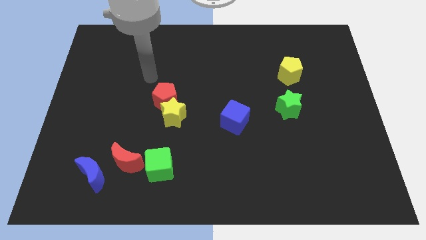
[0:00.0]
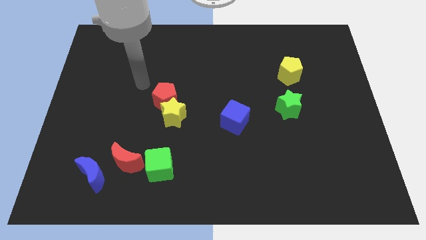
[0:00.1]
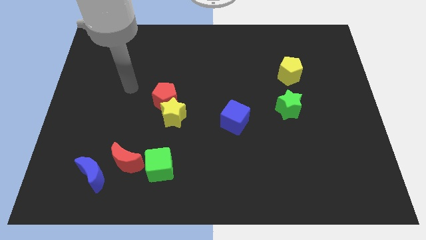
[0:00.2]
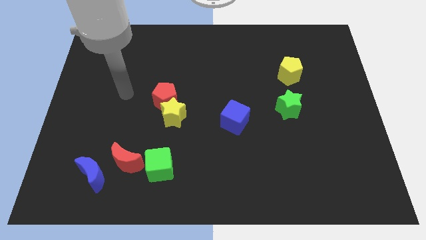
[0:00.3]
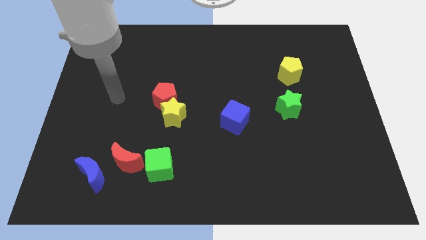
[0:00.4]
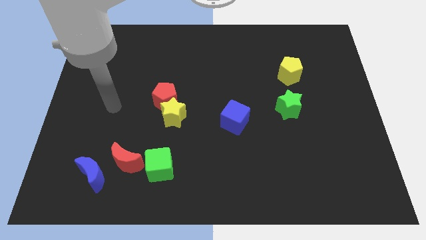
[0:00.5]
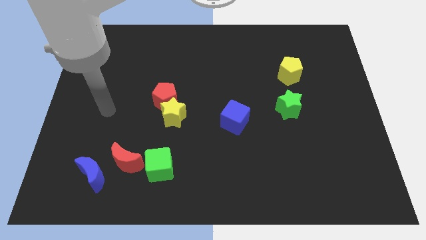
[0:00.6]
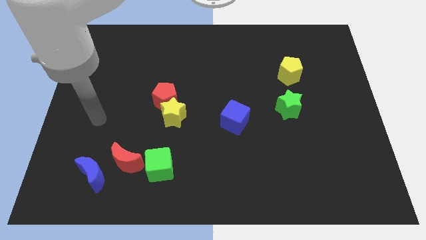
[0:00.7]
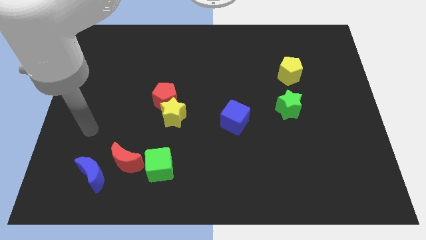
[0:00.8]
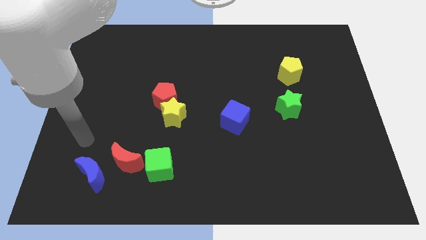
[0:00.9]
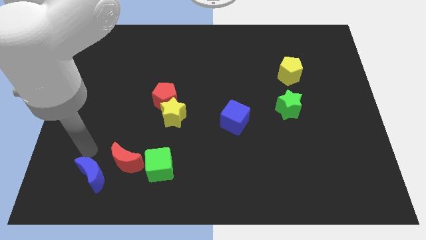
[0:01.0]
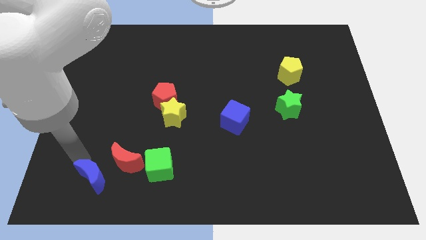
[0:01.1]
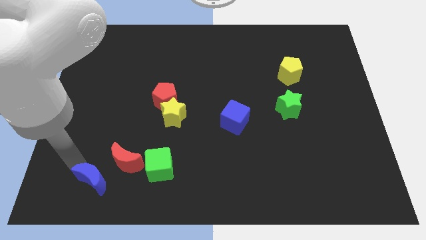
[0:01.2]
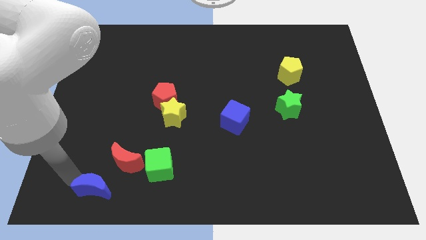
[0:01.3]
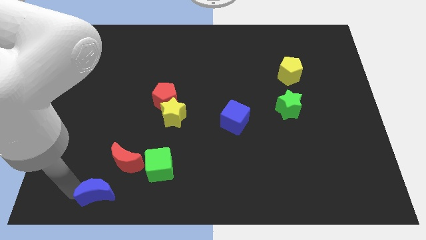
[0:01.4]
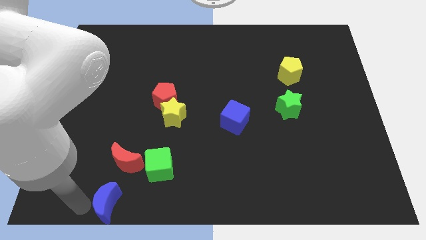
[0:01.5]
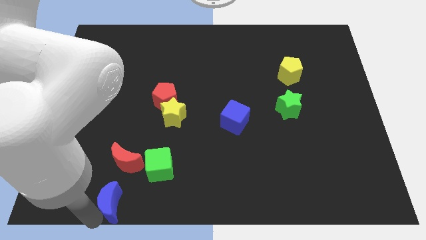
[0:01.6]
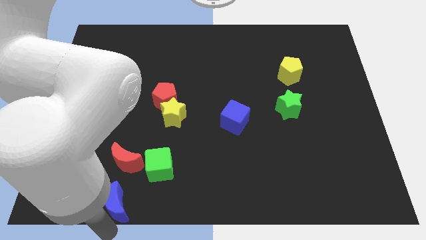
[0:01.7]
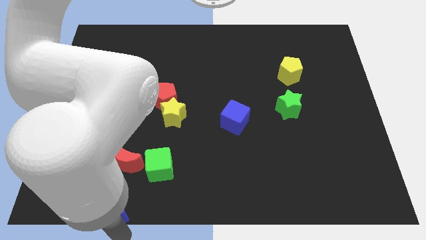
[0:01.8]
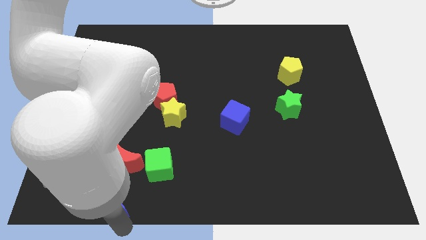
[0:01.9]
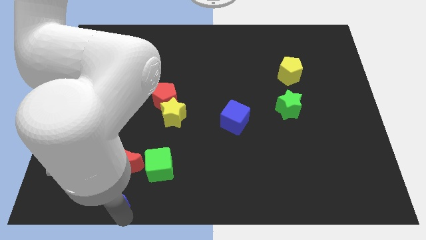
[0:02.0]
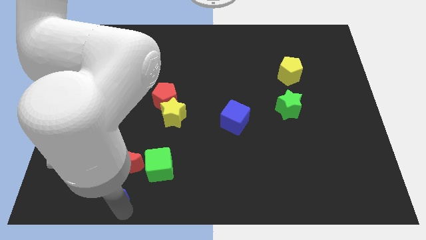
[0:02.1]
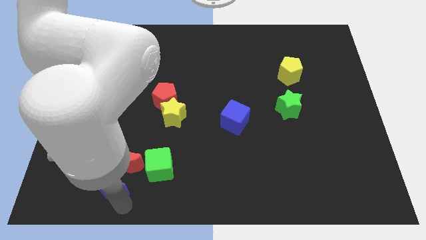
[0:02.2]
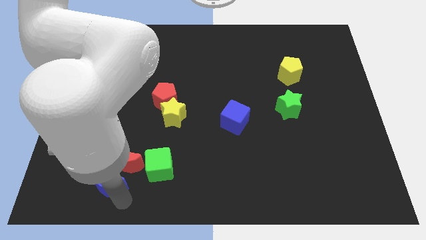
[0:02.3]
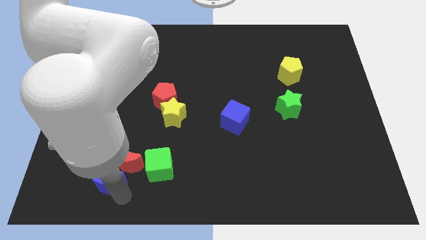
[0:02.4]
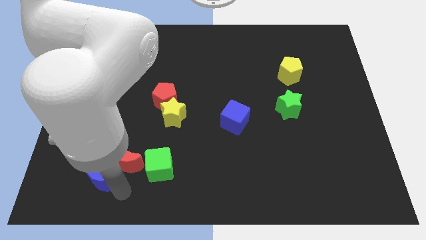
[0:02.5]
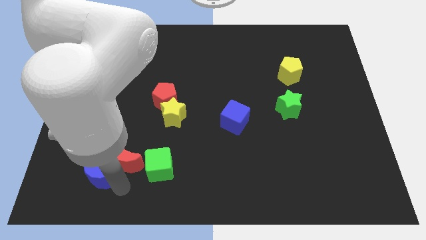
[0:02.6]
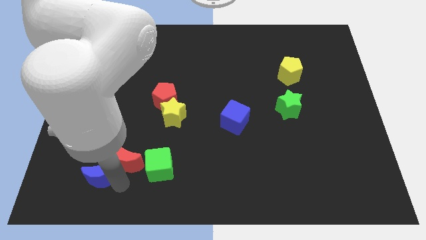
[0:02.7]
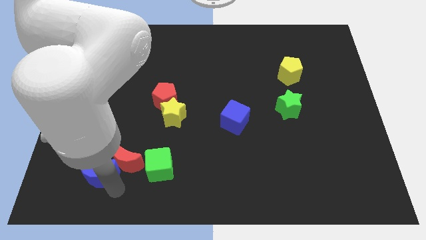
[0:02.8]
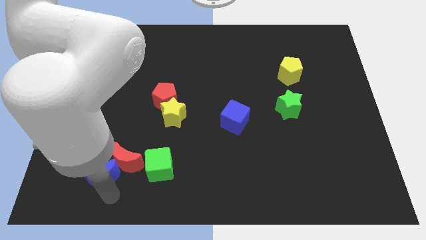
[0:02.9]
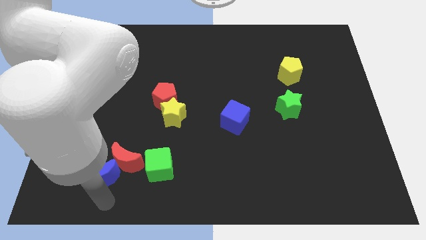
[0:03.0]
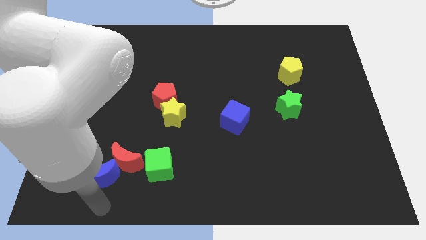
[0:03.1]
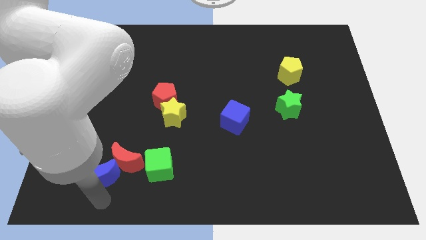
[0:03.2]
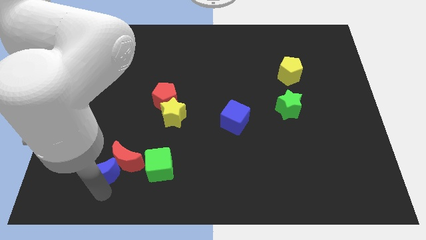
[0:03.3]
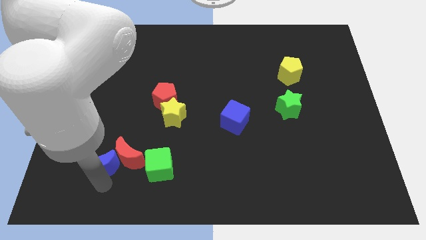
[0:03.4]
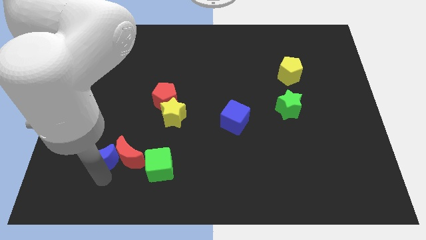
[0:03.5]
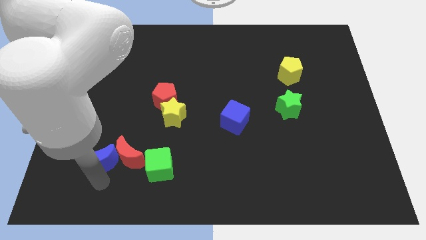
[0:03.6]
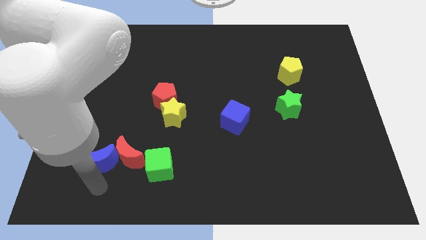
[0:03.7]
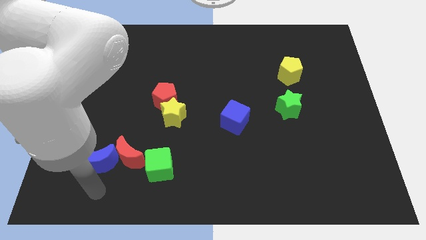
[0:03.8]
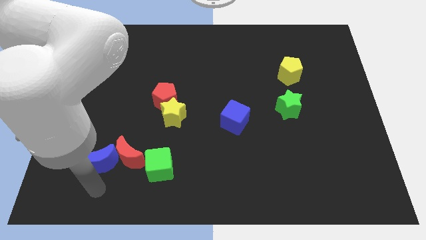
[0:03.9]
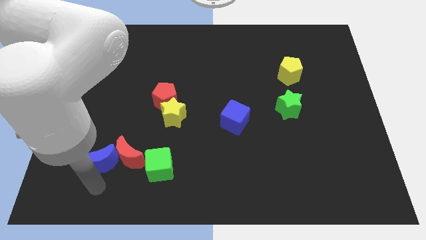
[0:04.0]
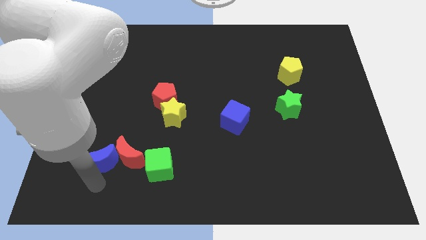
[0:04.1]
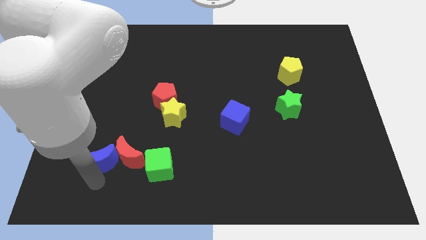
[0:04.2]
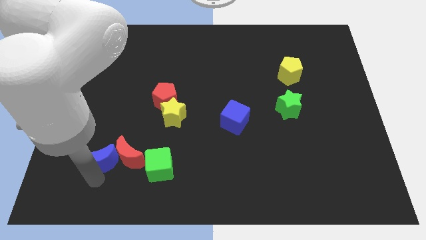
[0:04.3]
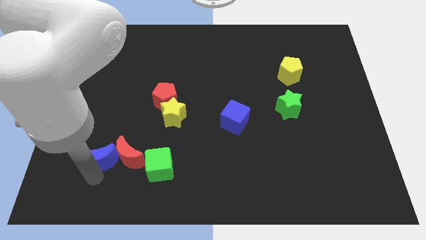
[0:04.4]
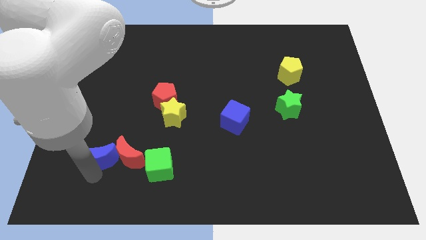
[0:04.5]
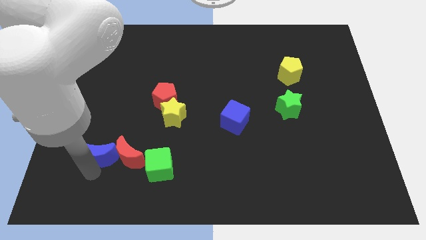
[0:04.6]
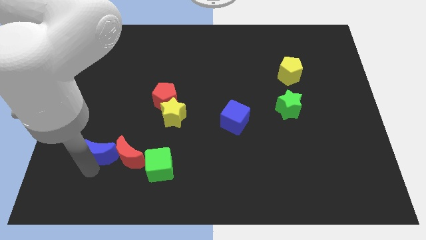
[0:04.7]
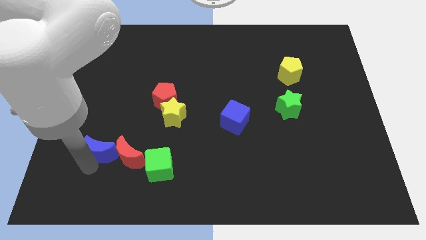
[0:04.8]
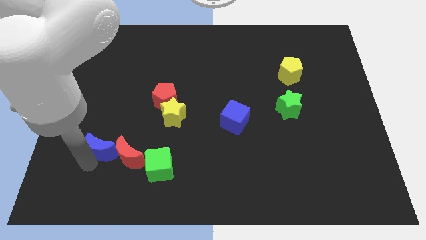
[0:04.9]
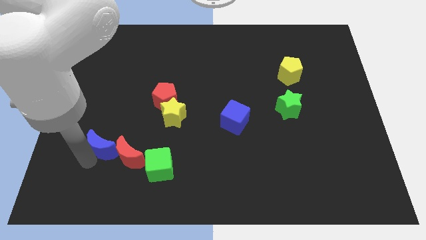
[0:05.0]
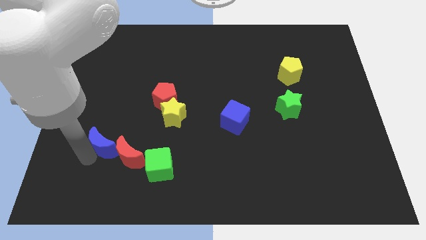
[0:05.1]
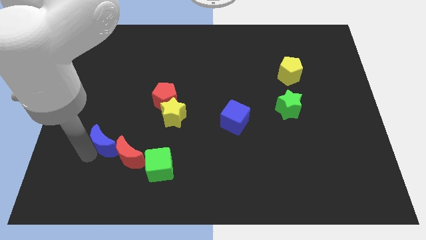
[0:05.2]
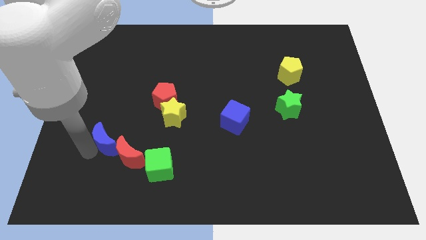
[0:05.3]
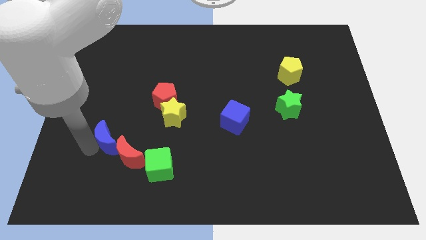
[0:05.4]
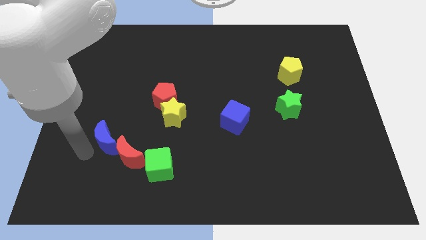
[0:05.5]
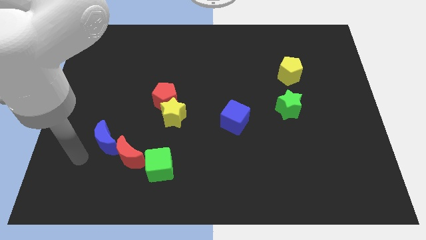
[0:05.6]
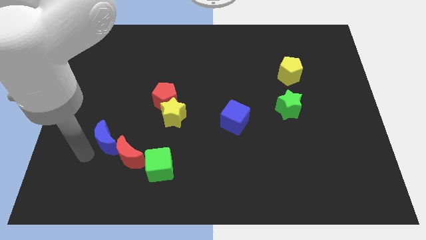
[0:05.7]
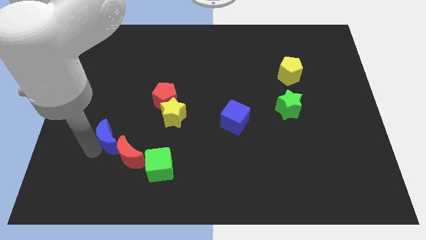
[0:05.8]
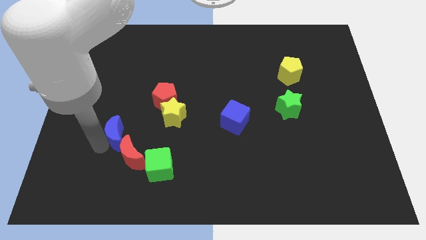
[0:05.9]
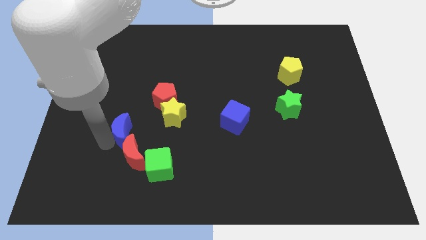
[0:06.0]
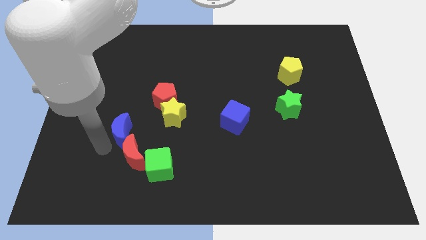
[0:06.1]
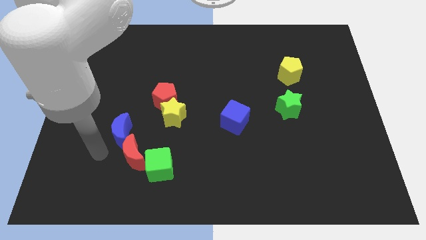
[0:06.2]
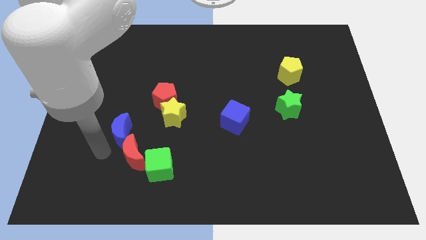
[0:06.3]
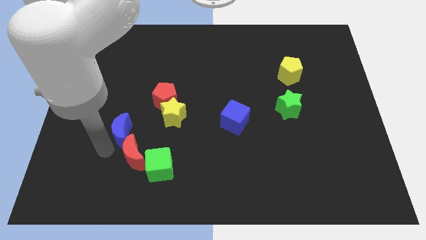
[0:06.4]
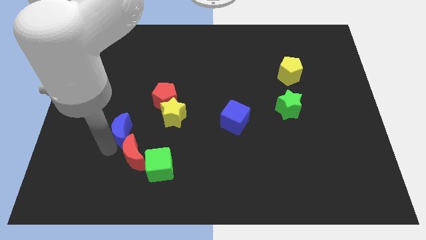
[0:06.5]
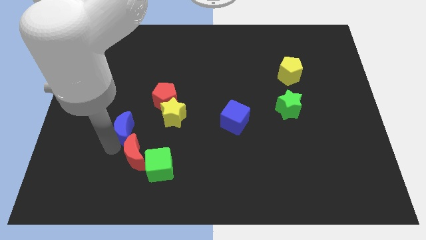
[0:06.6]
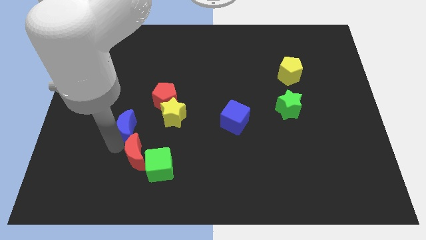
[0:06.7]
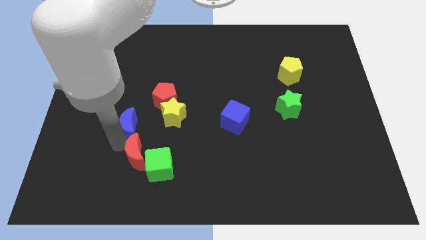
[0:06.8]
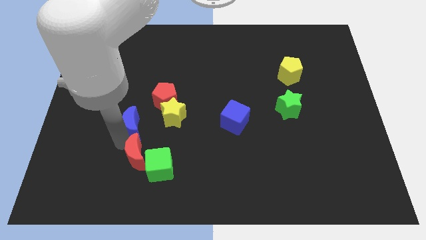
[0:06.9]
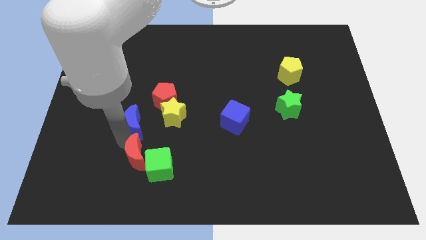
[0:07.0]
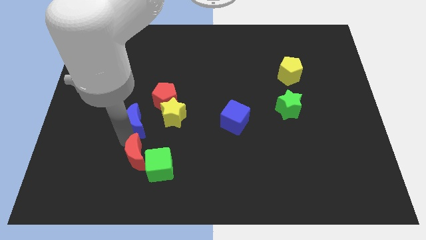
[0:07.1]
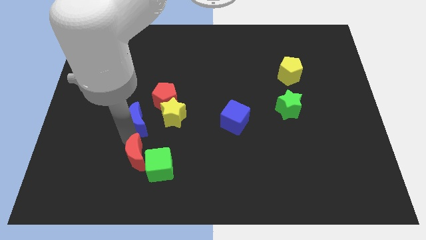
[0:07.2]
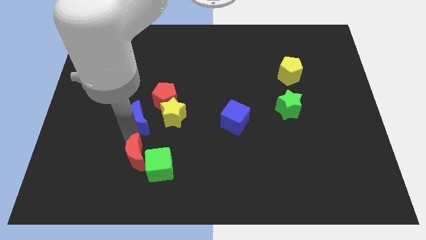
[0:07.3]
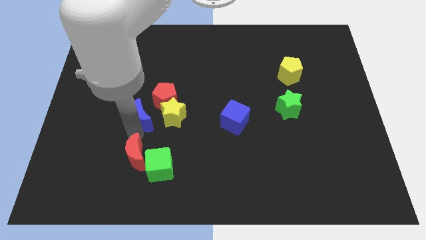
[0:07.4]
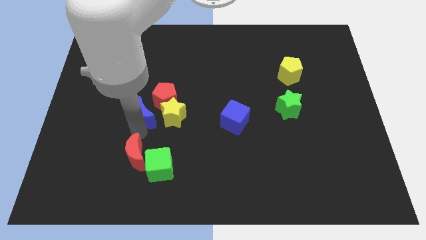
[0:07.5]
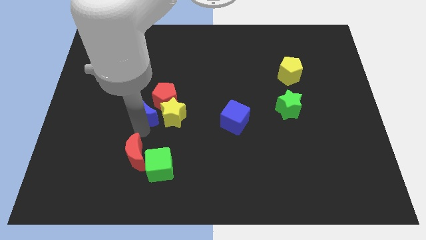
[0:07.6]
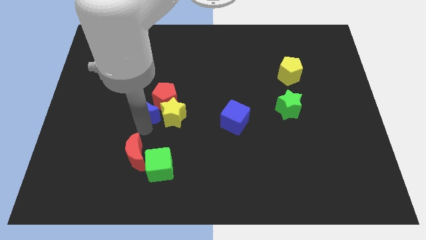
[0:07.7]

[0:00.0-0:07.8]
push the blue moon to the red pentagon
